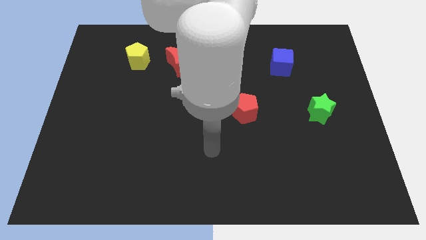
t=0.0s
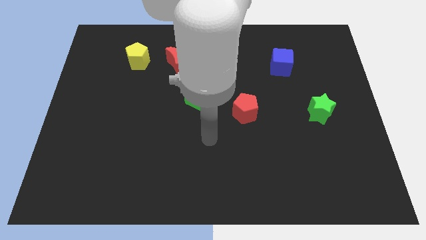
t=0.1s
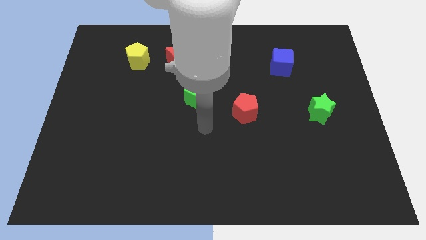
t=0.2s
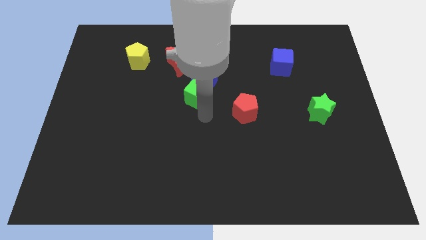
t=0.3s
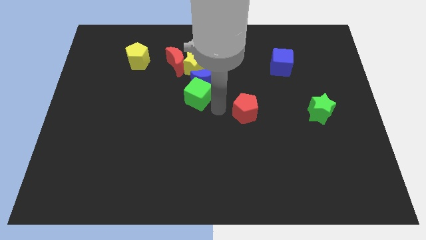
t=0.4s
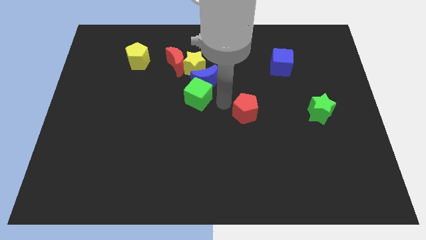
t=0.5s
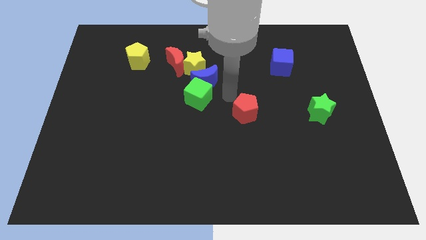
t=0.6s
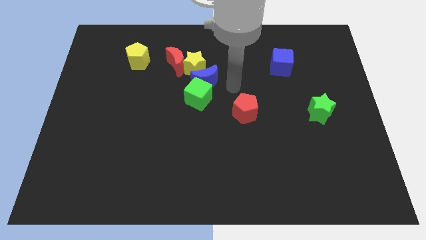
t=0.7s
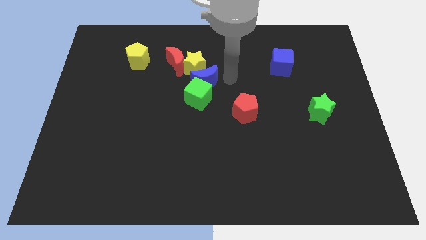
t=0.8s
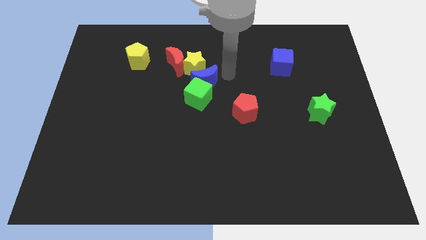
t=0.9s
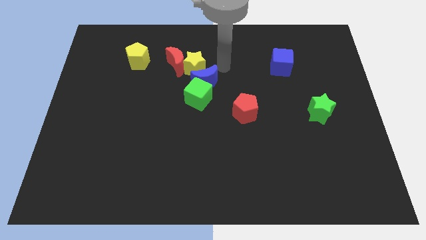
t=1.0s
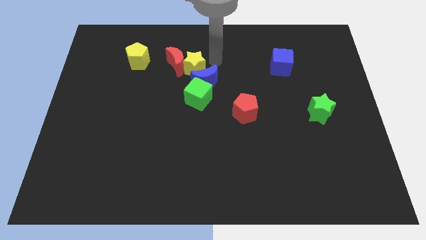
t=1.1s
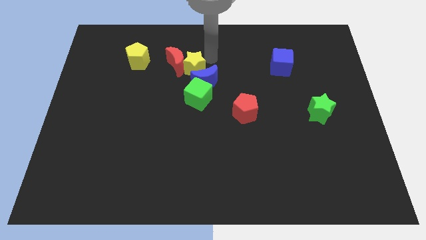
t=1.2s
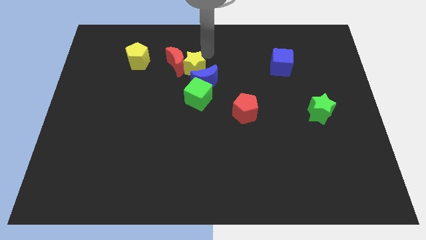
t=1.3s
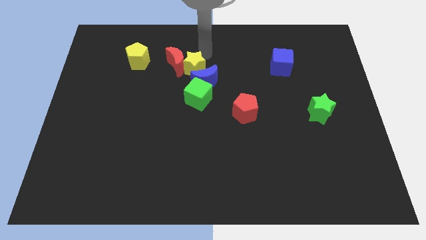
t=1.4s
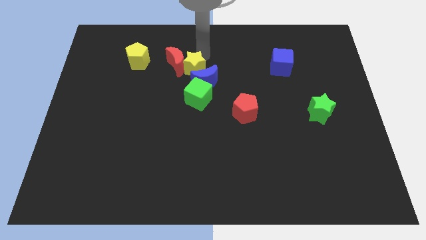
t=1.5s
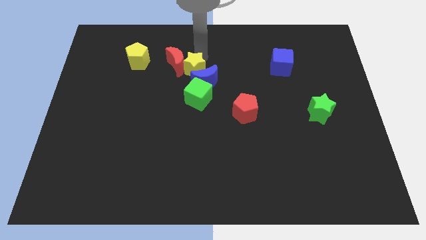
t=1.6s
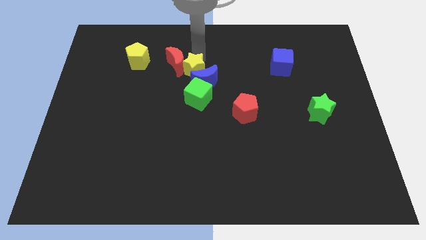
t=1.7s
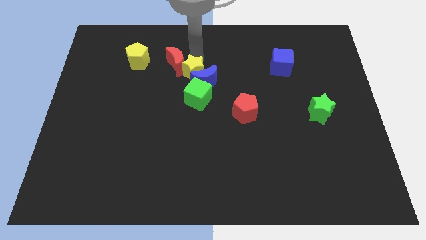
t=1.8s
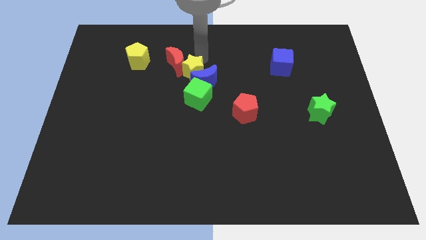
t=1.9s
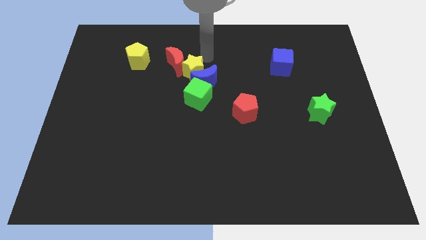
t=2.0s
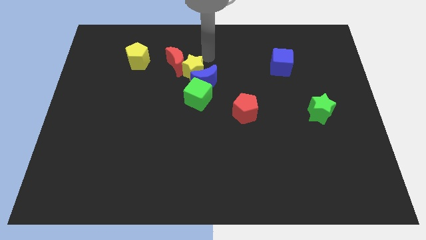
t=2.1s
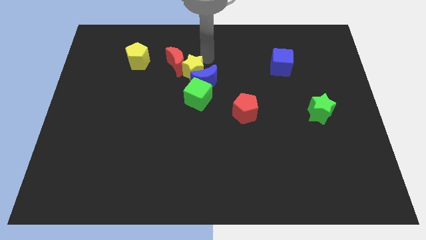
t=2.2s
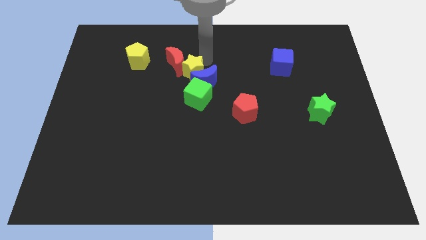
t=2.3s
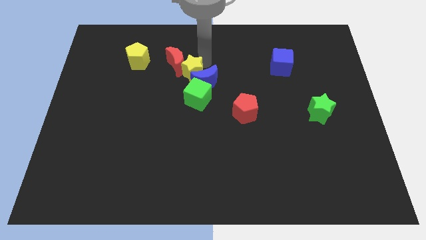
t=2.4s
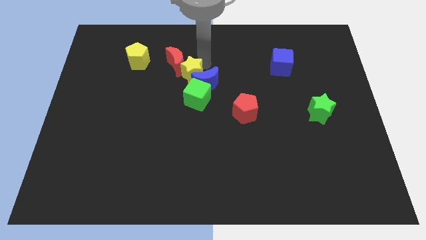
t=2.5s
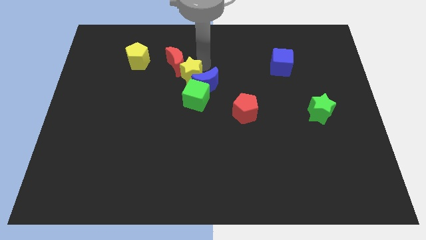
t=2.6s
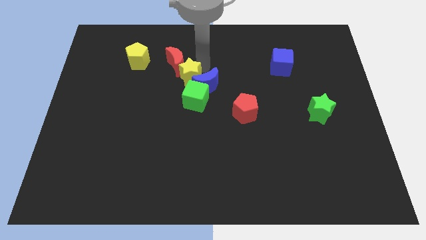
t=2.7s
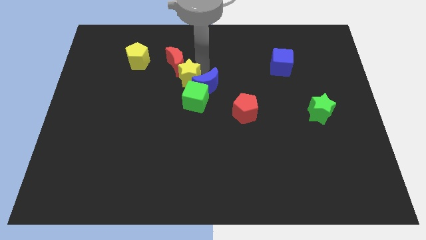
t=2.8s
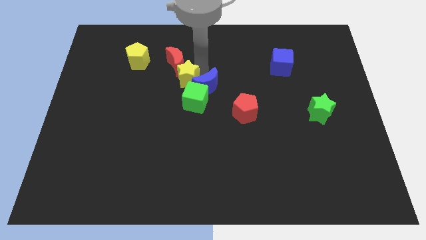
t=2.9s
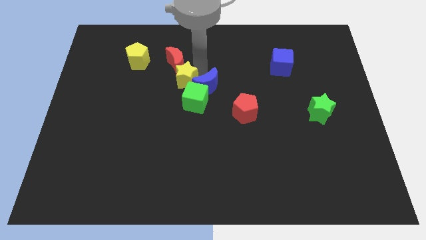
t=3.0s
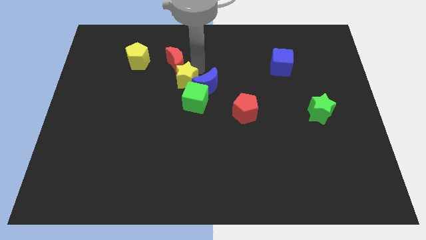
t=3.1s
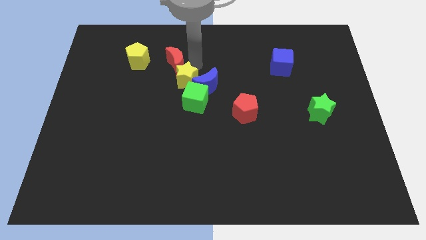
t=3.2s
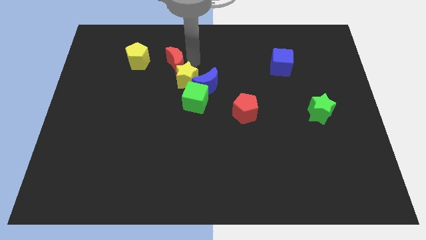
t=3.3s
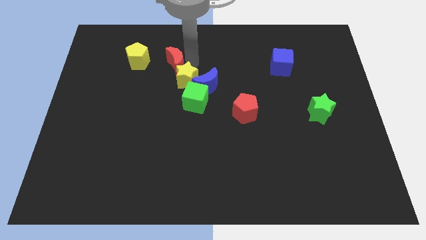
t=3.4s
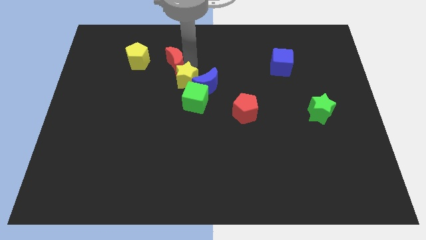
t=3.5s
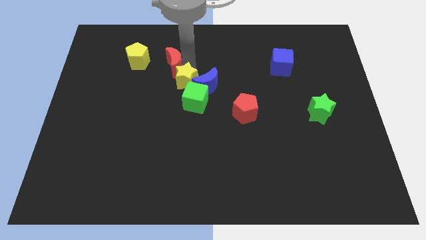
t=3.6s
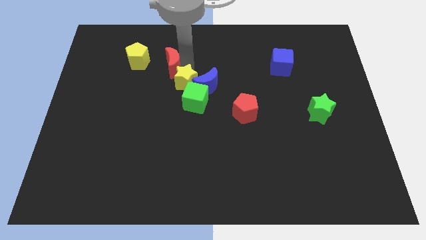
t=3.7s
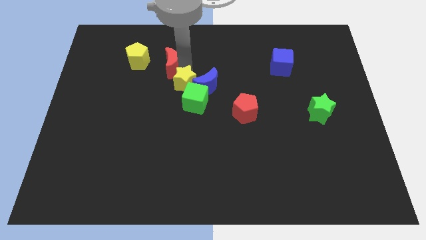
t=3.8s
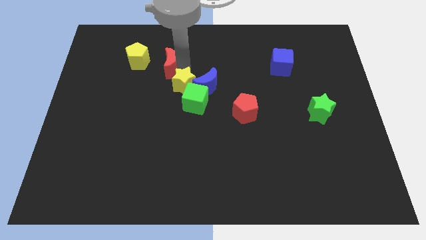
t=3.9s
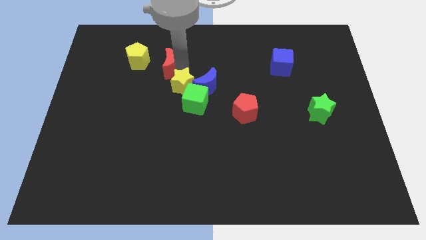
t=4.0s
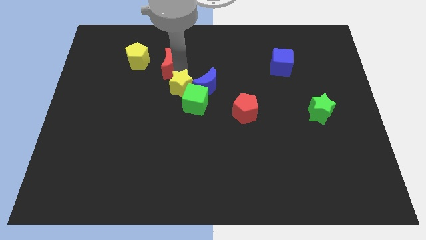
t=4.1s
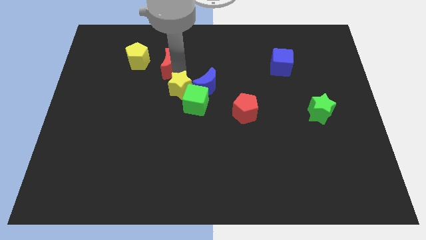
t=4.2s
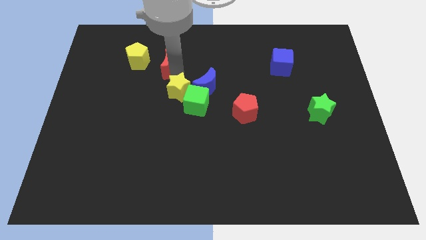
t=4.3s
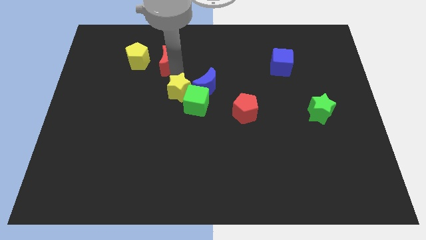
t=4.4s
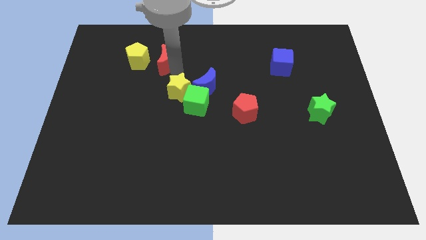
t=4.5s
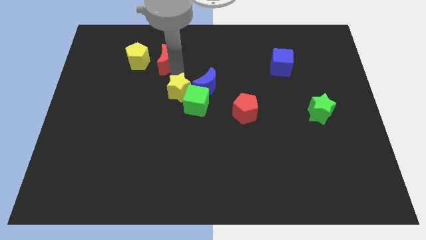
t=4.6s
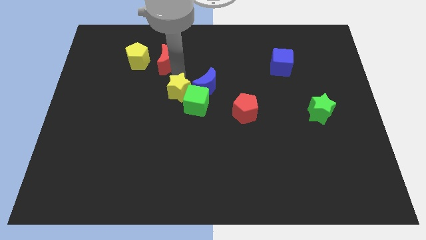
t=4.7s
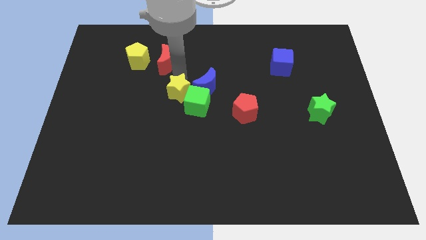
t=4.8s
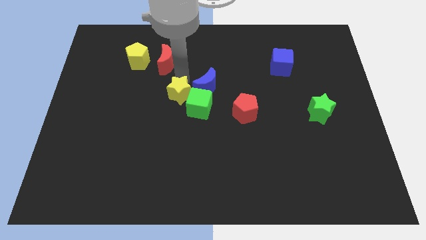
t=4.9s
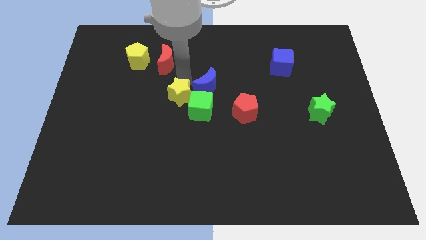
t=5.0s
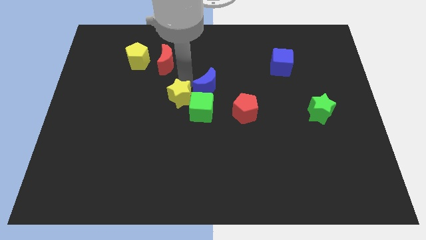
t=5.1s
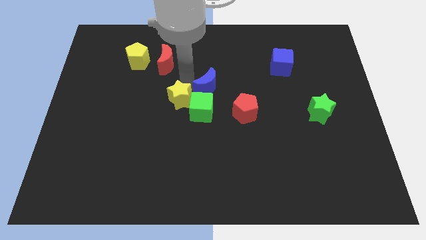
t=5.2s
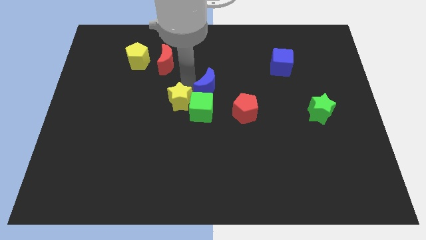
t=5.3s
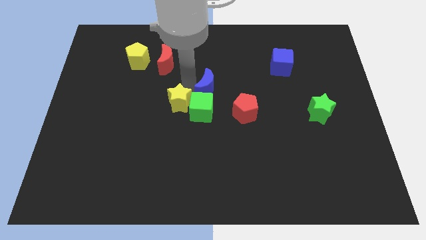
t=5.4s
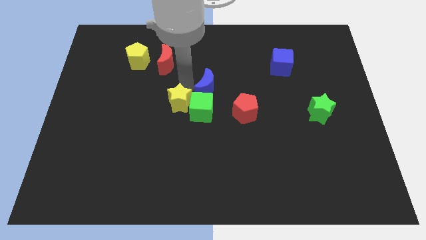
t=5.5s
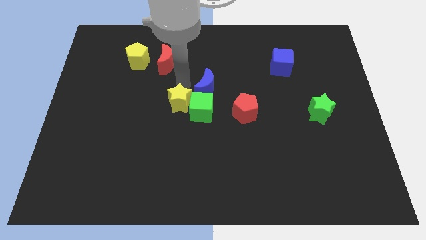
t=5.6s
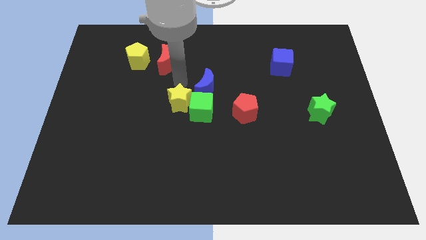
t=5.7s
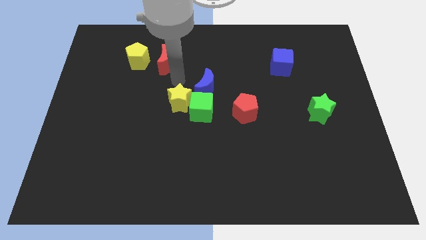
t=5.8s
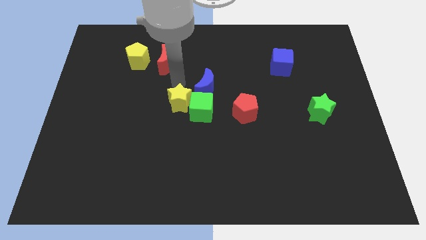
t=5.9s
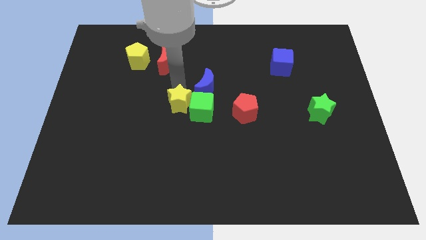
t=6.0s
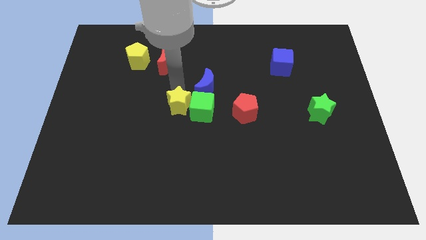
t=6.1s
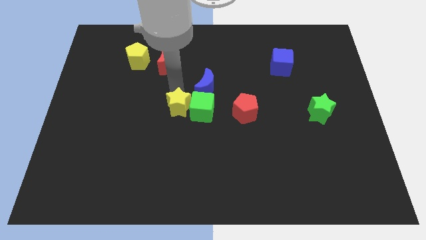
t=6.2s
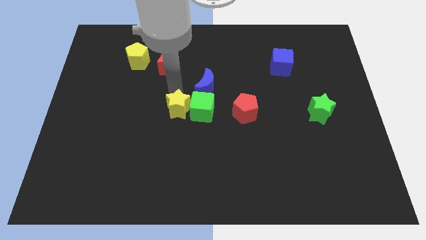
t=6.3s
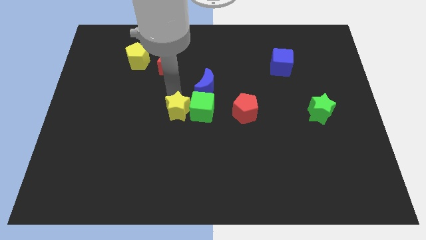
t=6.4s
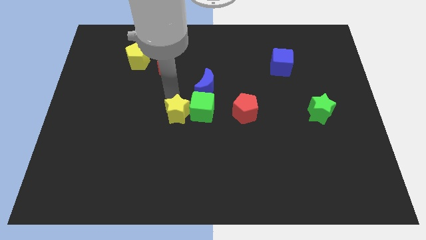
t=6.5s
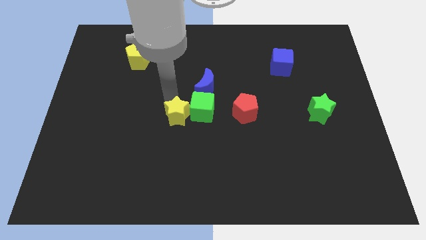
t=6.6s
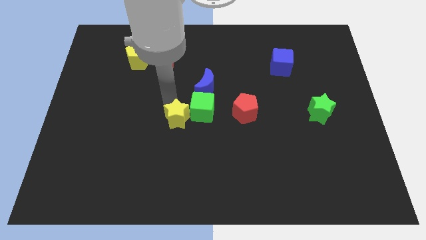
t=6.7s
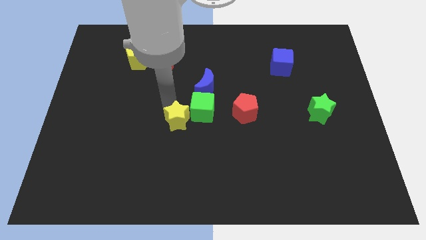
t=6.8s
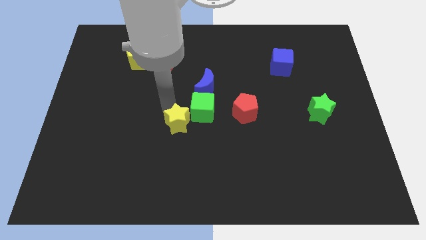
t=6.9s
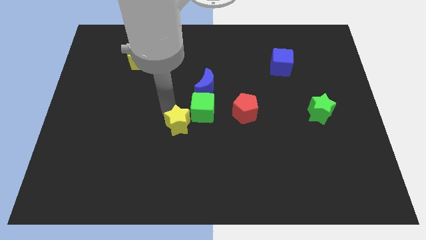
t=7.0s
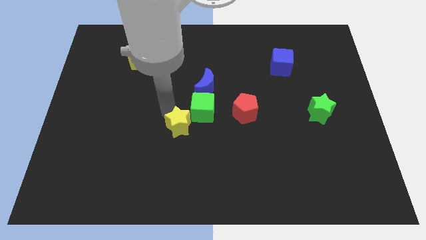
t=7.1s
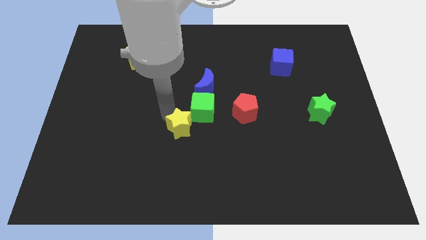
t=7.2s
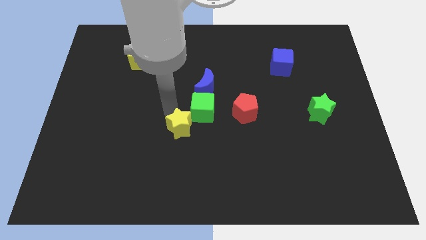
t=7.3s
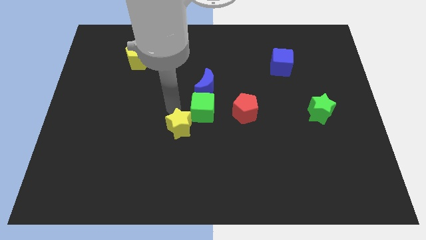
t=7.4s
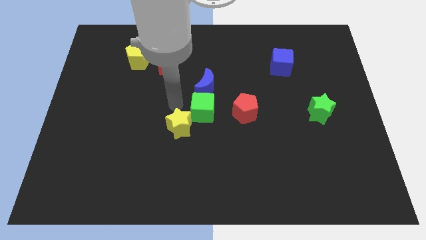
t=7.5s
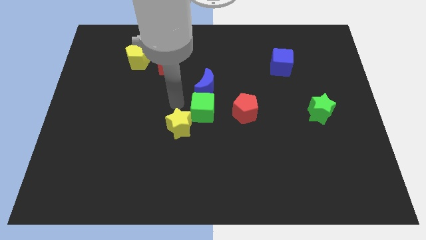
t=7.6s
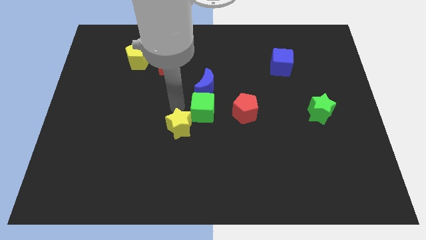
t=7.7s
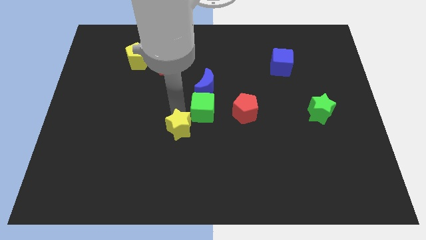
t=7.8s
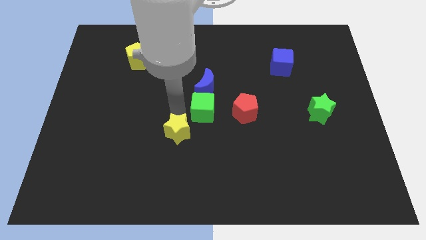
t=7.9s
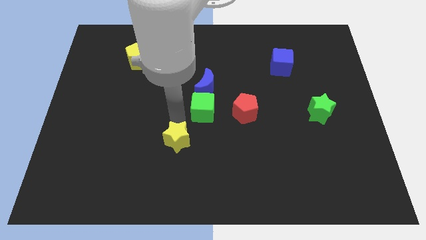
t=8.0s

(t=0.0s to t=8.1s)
push the yellow star down
